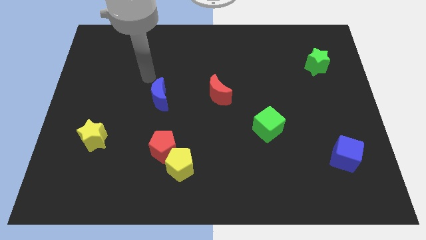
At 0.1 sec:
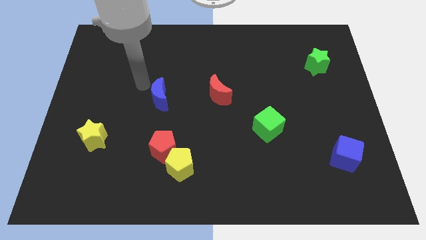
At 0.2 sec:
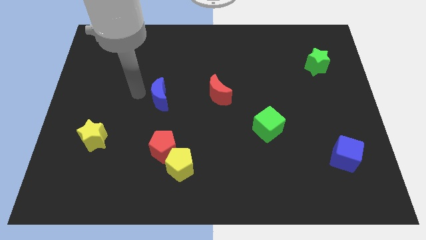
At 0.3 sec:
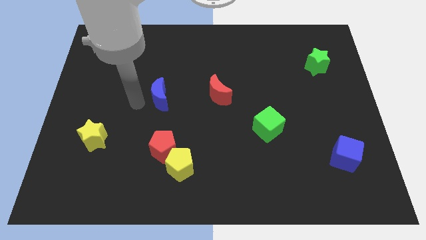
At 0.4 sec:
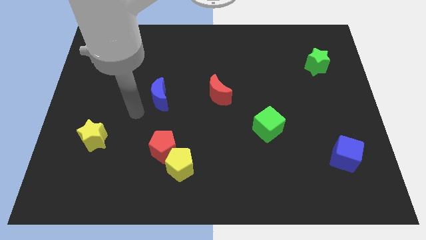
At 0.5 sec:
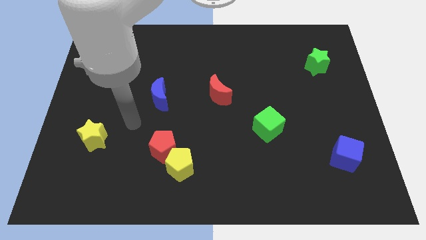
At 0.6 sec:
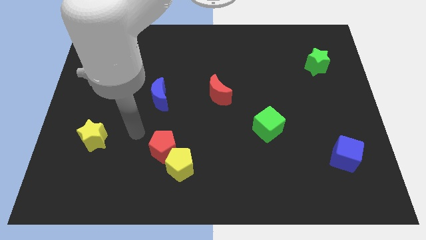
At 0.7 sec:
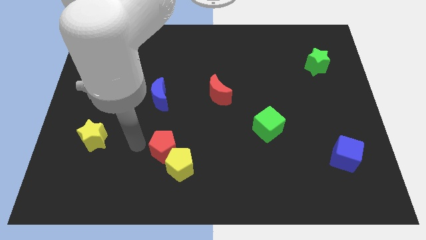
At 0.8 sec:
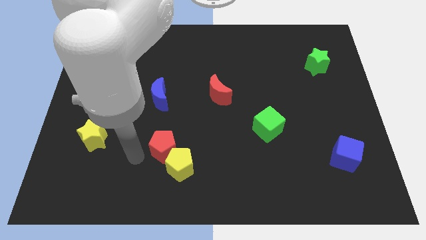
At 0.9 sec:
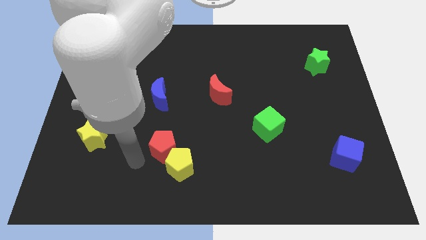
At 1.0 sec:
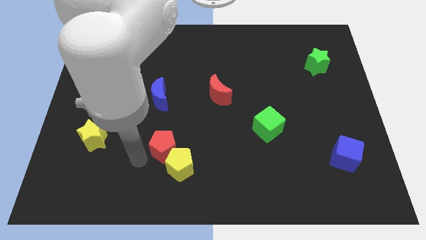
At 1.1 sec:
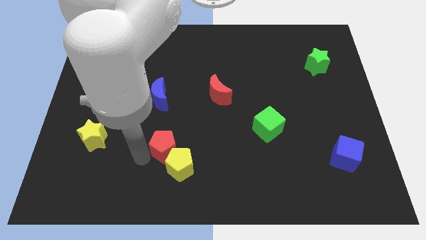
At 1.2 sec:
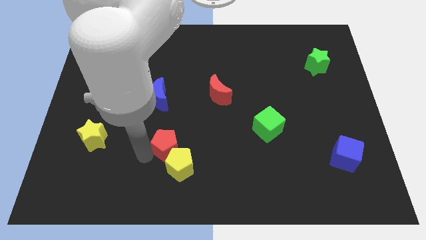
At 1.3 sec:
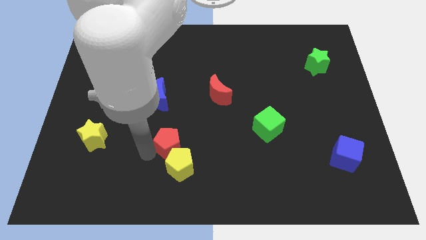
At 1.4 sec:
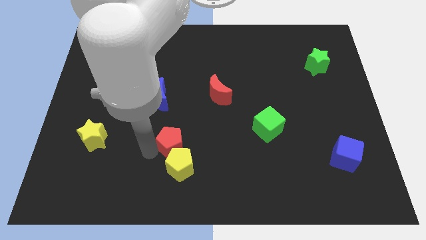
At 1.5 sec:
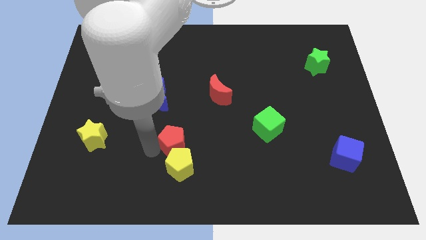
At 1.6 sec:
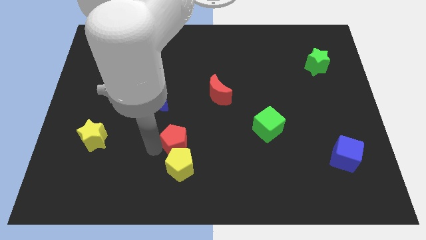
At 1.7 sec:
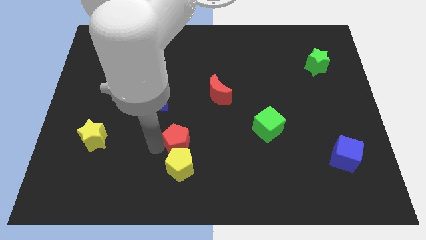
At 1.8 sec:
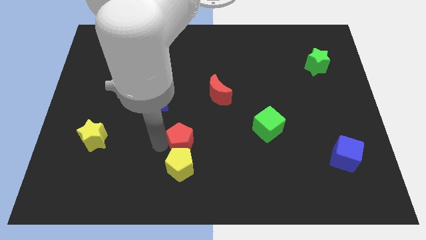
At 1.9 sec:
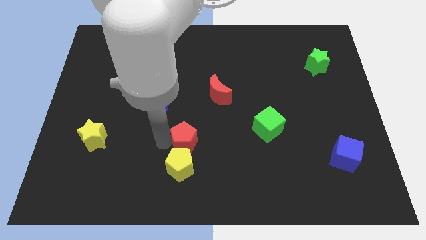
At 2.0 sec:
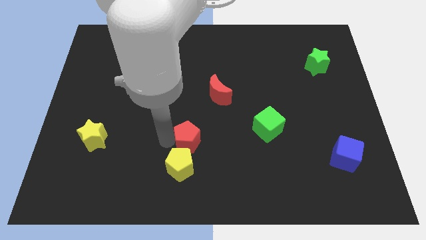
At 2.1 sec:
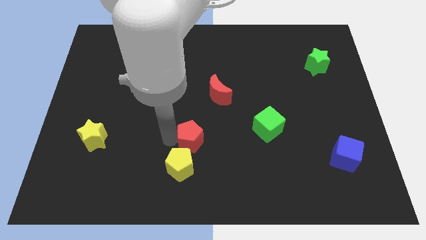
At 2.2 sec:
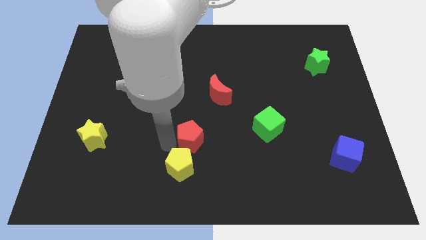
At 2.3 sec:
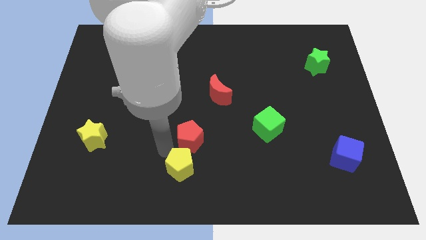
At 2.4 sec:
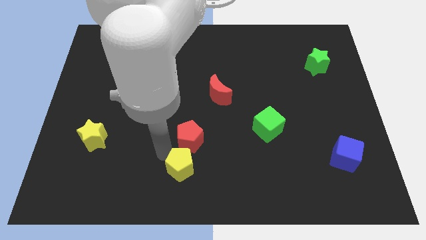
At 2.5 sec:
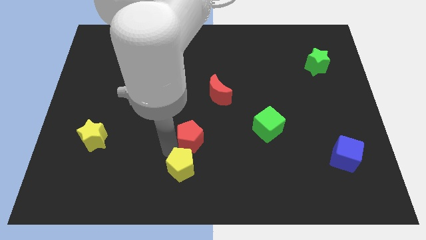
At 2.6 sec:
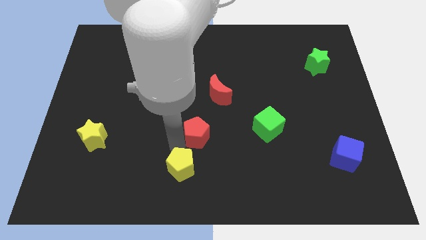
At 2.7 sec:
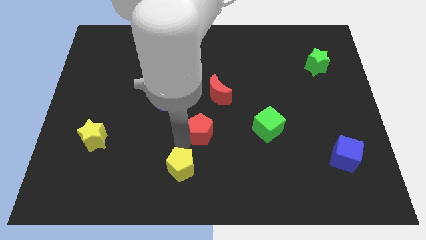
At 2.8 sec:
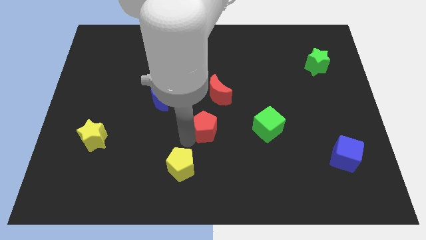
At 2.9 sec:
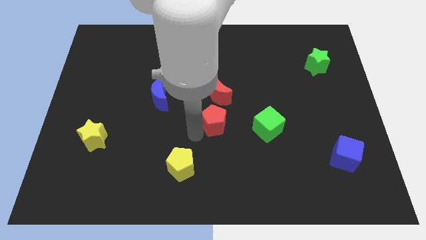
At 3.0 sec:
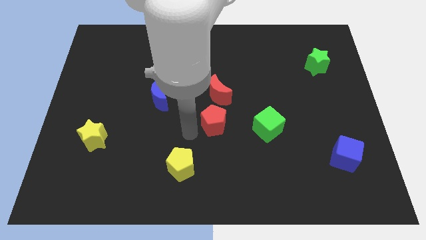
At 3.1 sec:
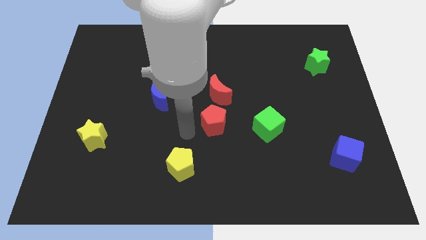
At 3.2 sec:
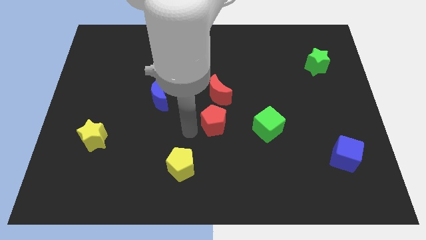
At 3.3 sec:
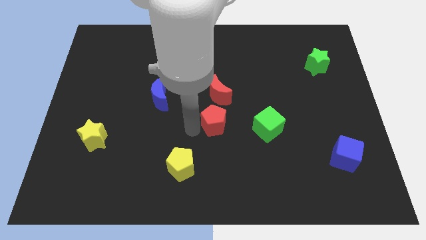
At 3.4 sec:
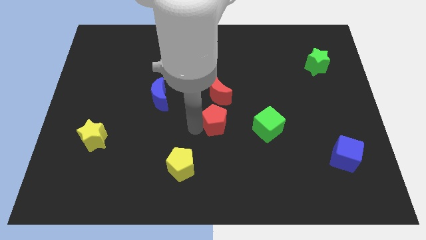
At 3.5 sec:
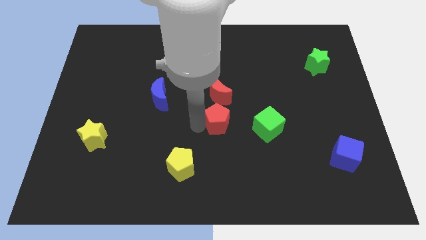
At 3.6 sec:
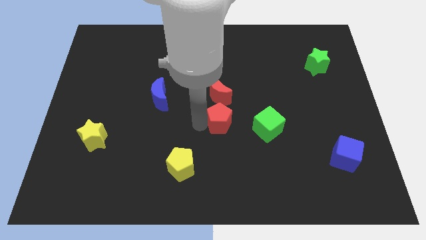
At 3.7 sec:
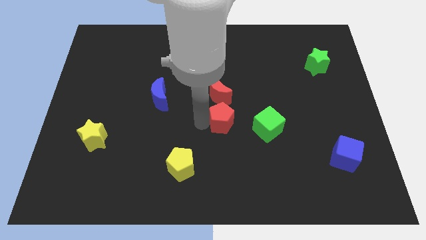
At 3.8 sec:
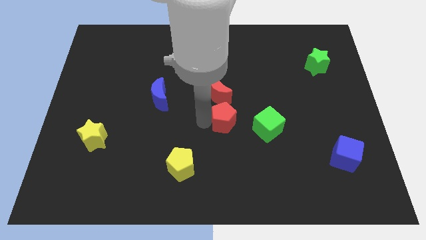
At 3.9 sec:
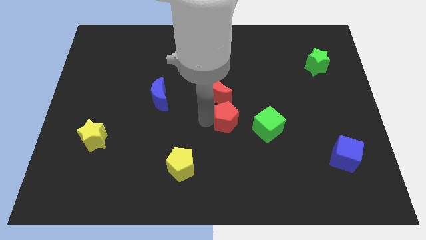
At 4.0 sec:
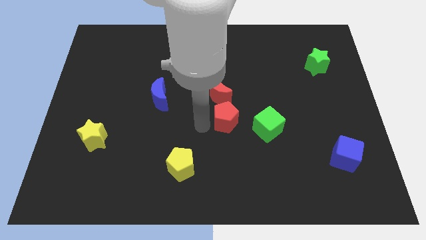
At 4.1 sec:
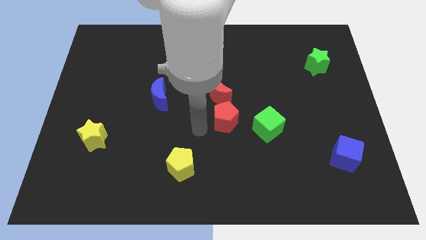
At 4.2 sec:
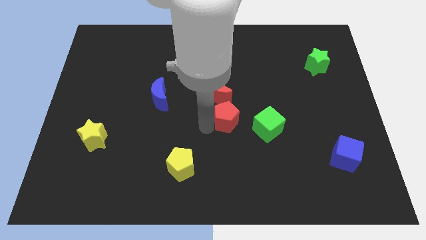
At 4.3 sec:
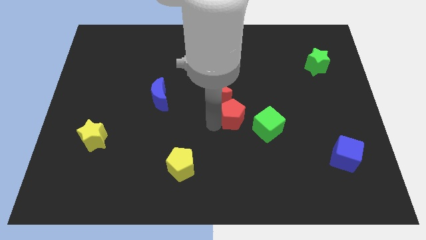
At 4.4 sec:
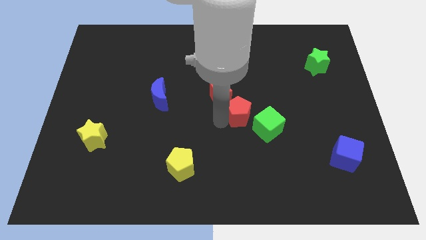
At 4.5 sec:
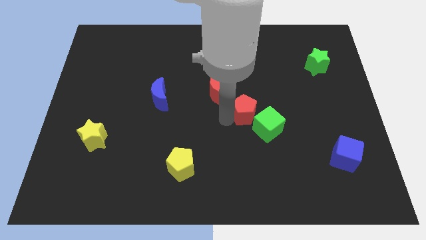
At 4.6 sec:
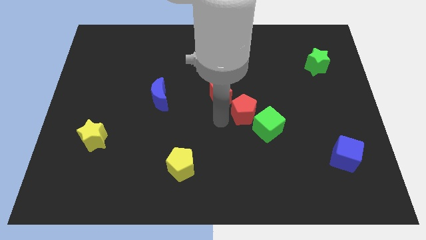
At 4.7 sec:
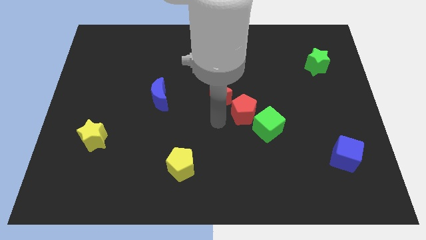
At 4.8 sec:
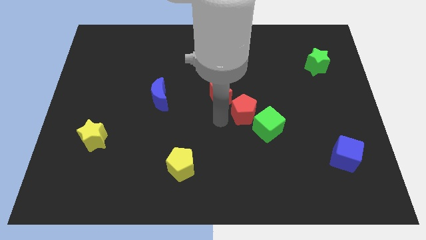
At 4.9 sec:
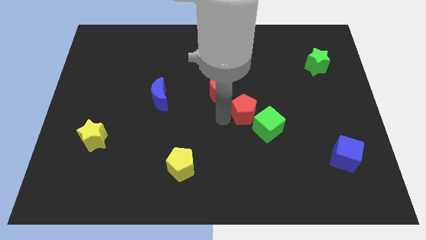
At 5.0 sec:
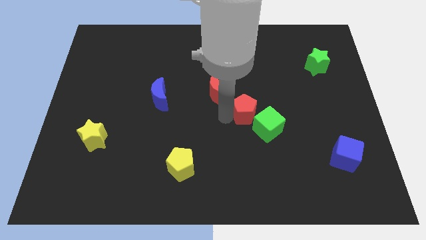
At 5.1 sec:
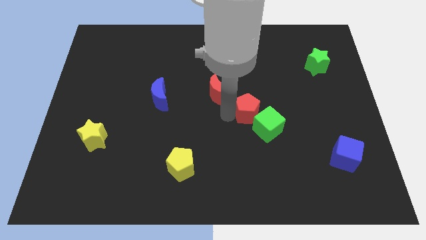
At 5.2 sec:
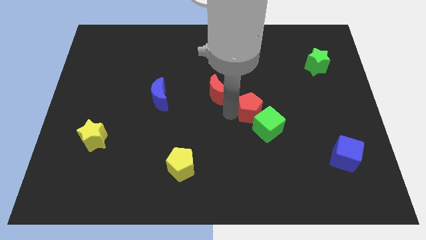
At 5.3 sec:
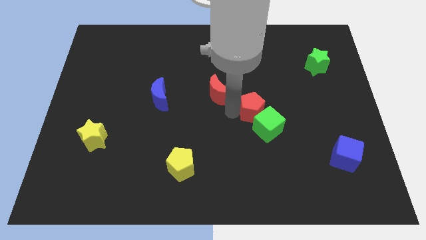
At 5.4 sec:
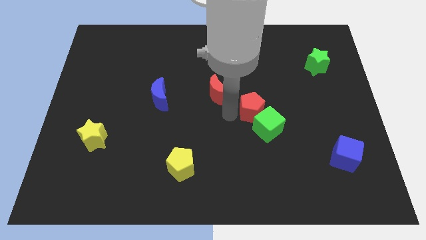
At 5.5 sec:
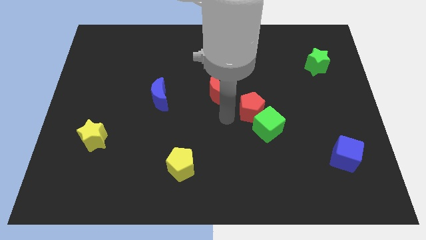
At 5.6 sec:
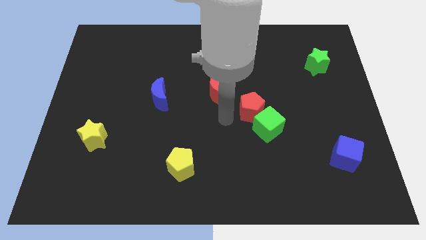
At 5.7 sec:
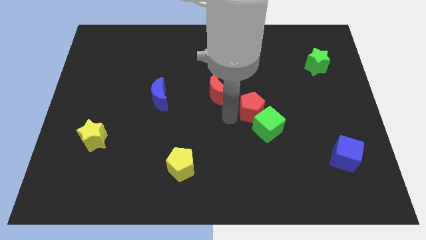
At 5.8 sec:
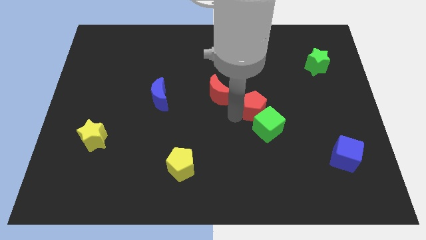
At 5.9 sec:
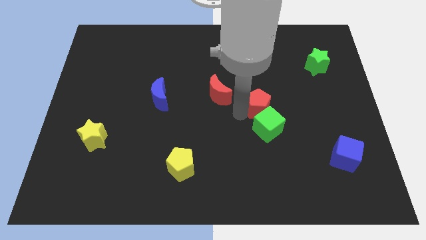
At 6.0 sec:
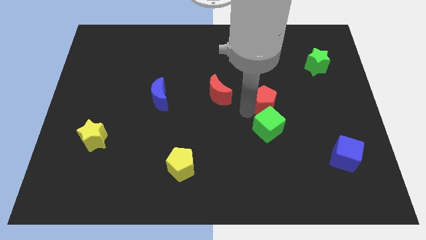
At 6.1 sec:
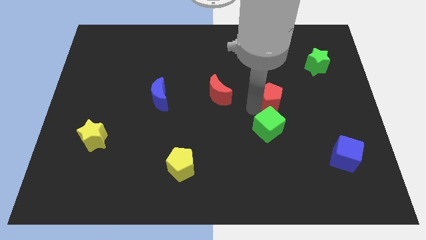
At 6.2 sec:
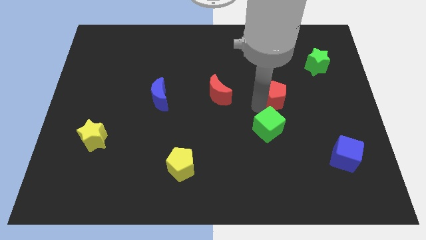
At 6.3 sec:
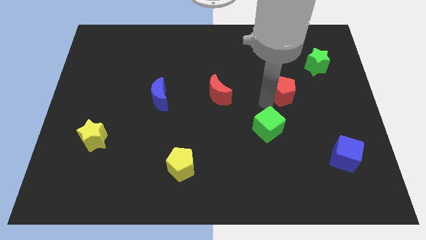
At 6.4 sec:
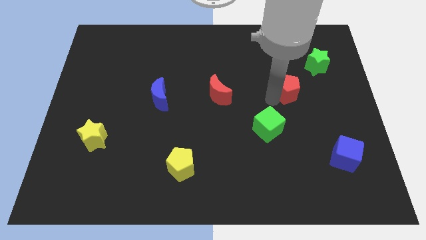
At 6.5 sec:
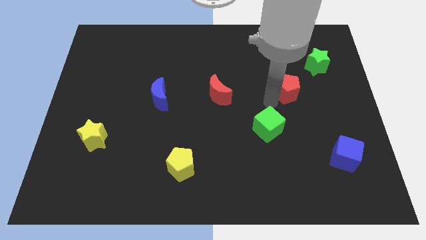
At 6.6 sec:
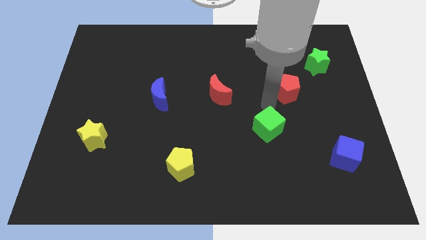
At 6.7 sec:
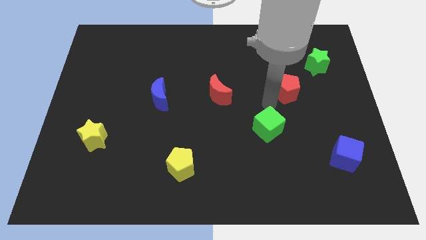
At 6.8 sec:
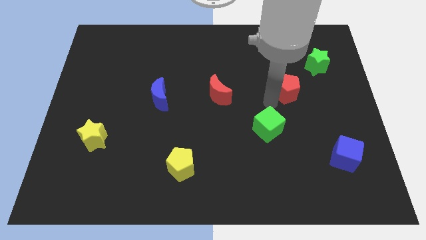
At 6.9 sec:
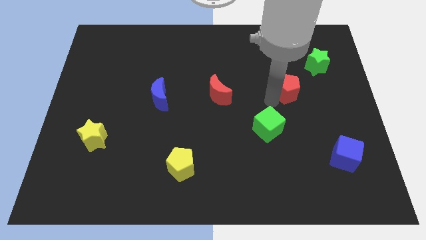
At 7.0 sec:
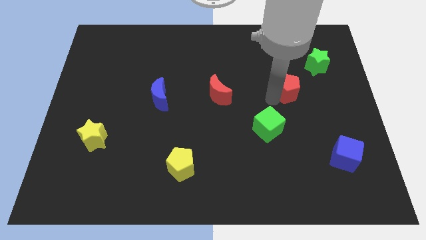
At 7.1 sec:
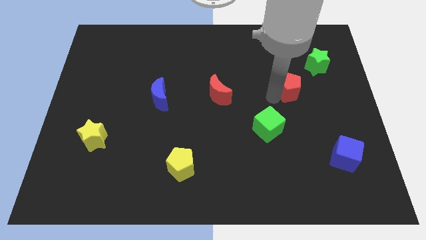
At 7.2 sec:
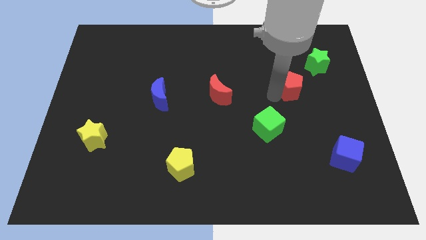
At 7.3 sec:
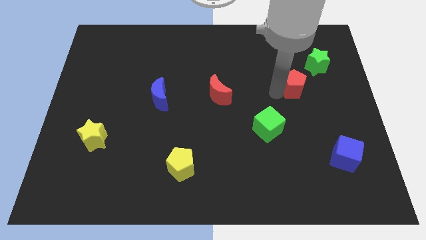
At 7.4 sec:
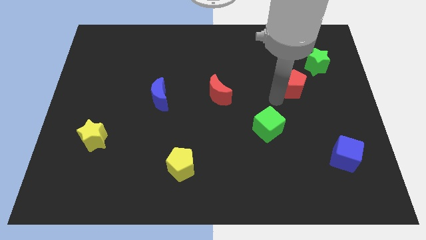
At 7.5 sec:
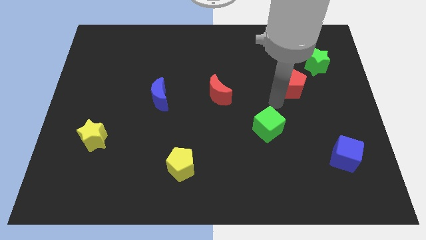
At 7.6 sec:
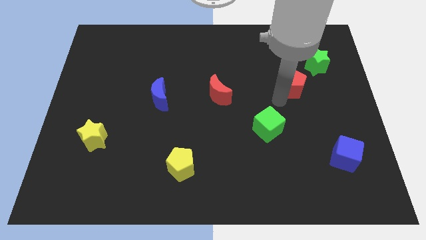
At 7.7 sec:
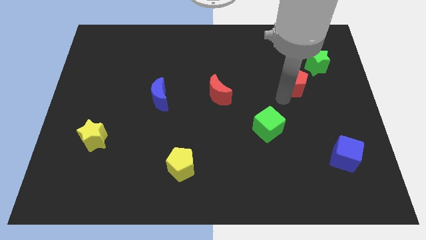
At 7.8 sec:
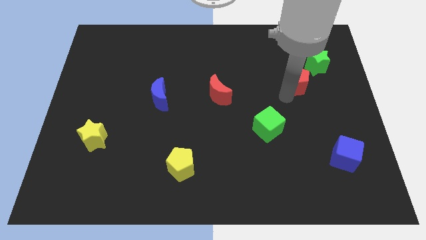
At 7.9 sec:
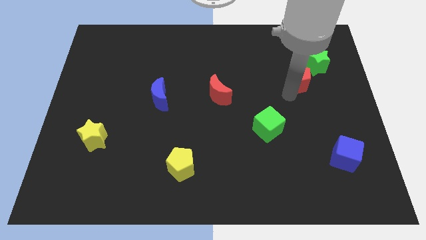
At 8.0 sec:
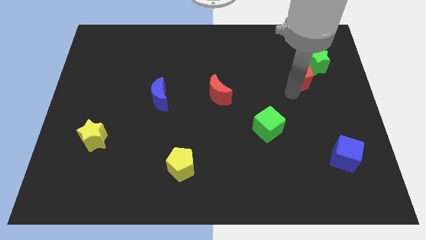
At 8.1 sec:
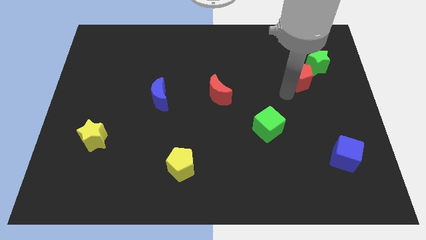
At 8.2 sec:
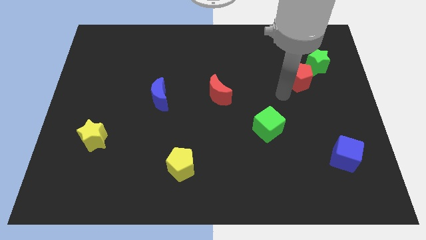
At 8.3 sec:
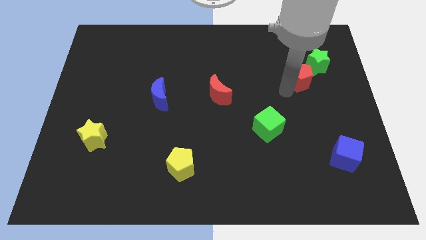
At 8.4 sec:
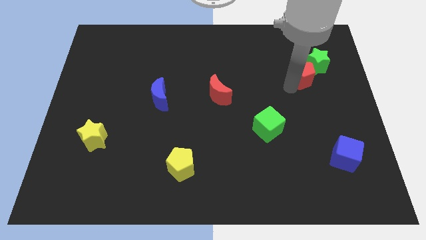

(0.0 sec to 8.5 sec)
put the red pentagon to the green star
